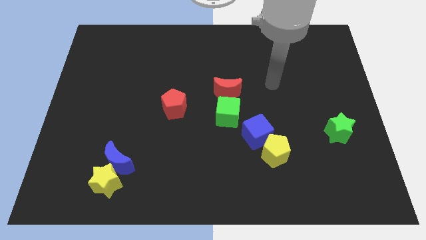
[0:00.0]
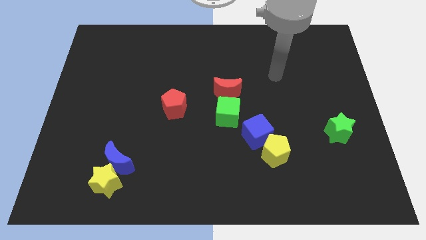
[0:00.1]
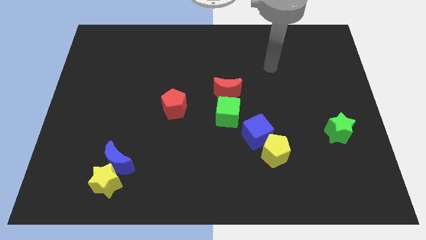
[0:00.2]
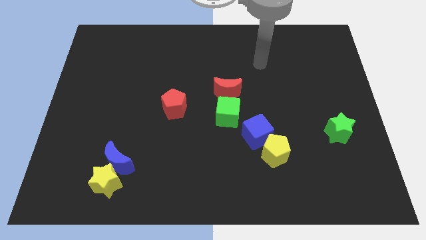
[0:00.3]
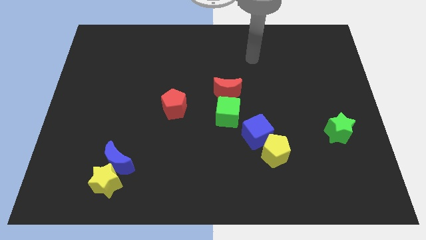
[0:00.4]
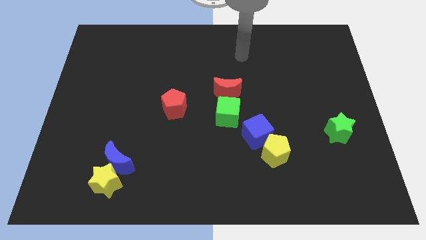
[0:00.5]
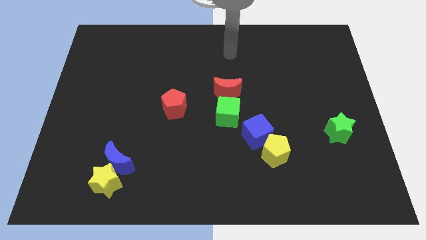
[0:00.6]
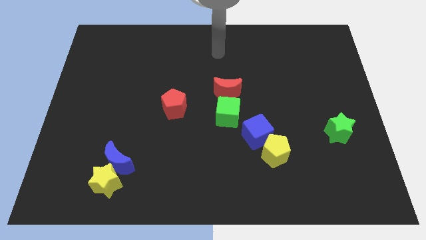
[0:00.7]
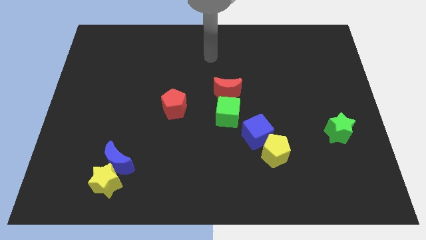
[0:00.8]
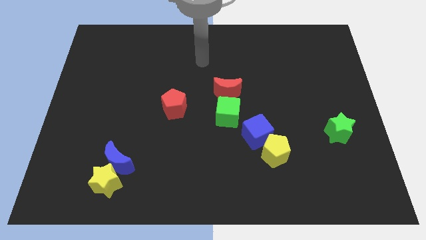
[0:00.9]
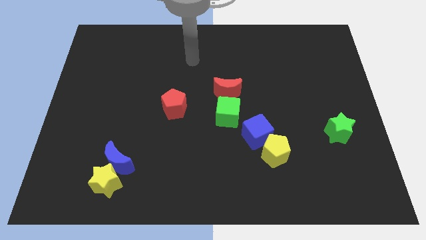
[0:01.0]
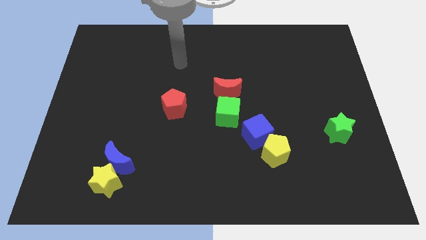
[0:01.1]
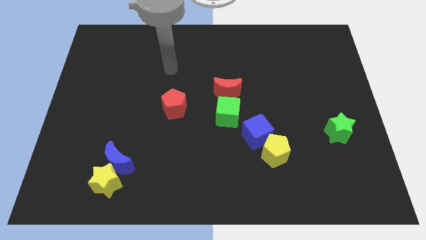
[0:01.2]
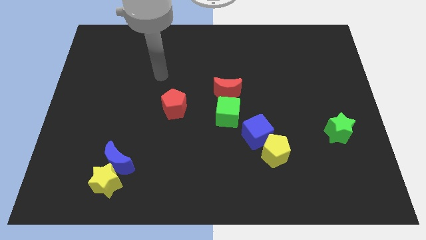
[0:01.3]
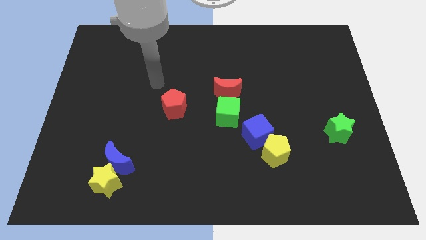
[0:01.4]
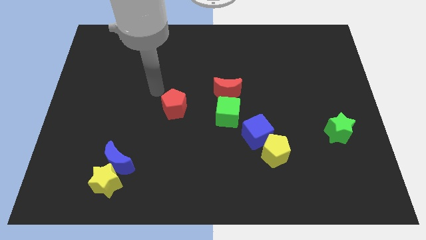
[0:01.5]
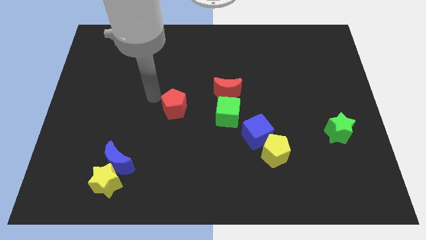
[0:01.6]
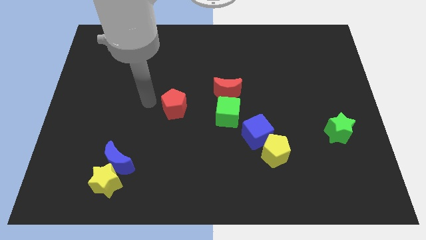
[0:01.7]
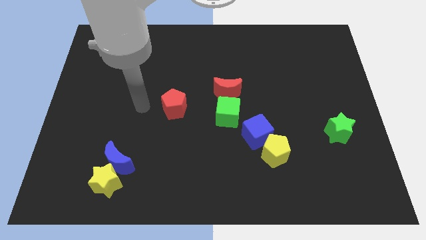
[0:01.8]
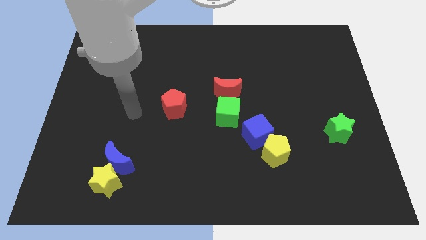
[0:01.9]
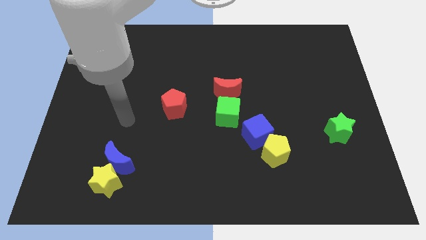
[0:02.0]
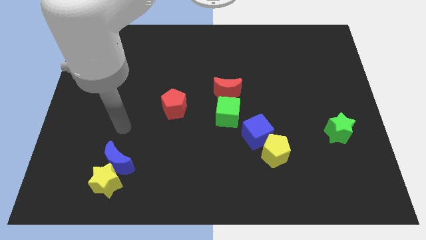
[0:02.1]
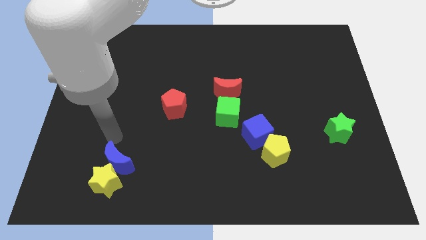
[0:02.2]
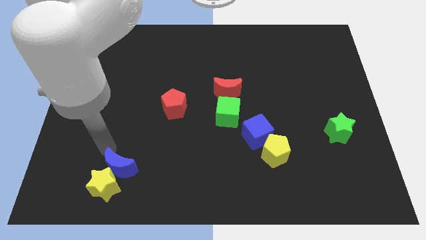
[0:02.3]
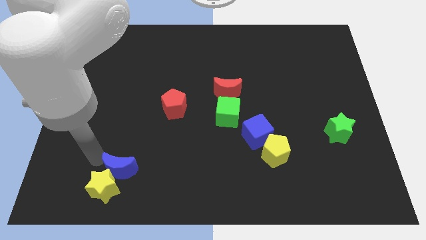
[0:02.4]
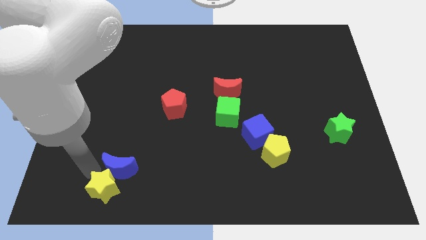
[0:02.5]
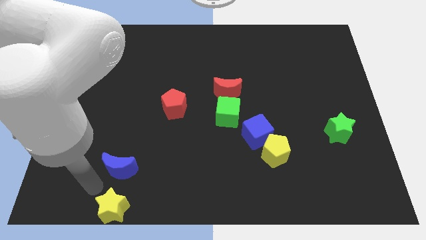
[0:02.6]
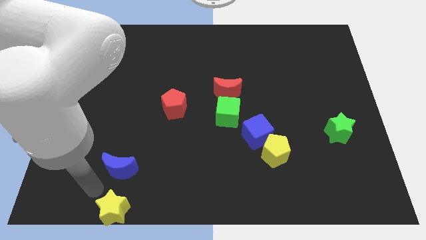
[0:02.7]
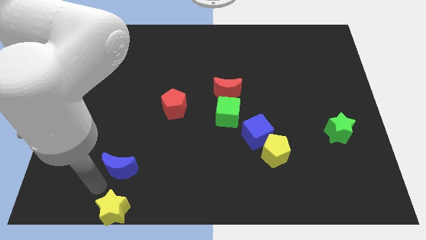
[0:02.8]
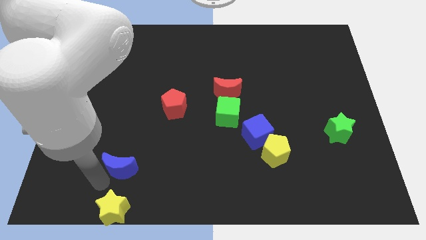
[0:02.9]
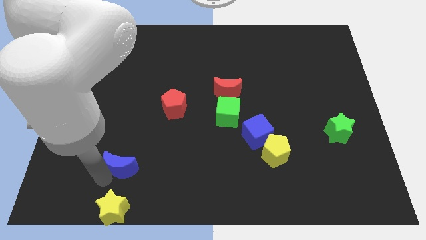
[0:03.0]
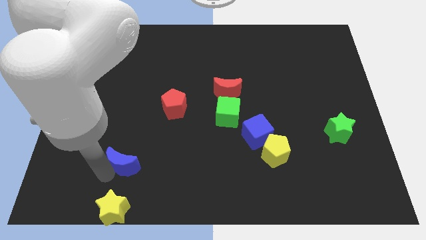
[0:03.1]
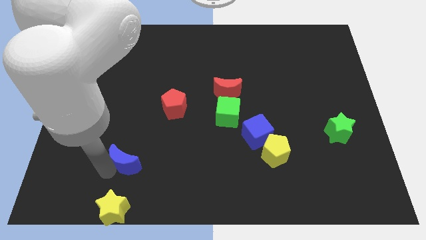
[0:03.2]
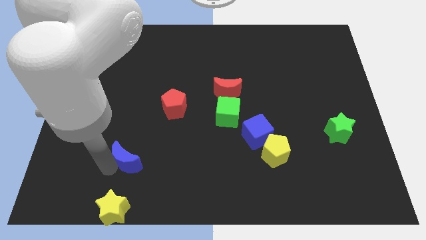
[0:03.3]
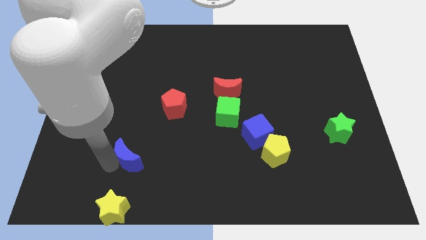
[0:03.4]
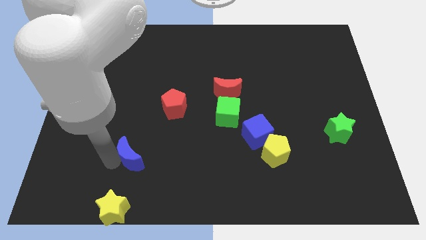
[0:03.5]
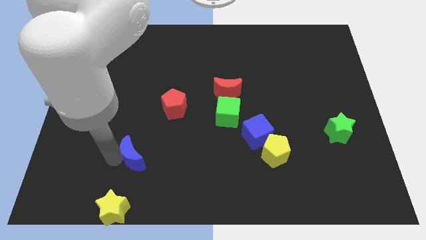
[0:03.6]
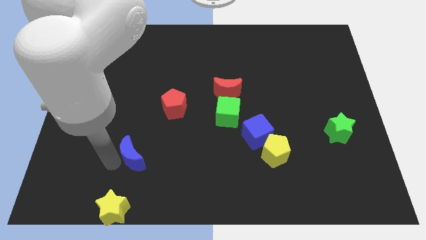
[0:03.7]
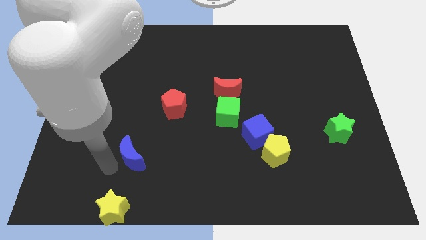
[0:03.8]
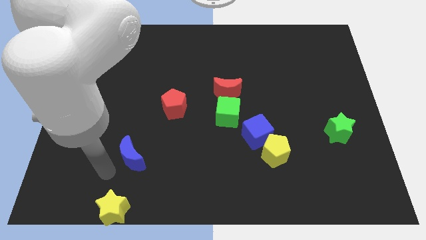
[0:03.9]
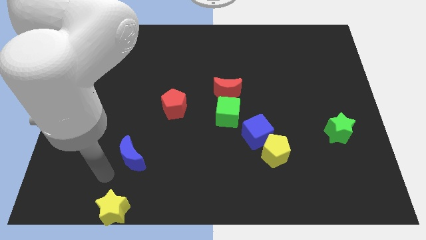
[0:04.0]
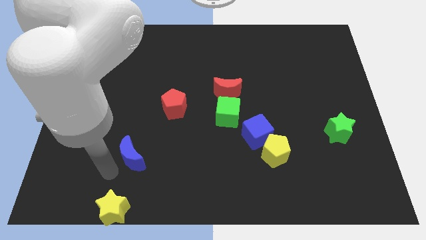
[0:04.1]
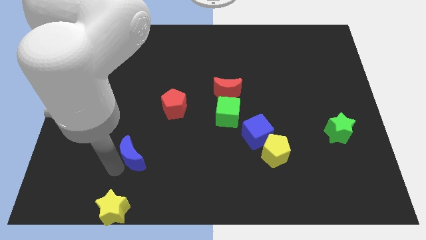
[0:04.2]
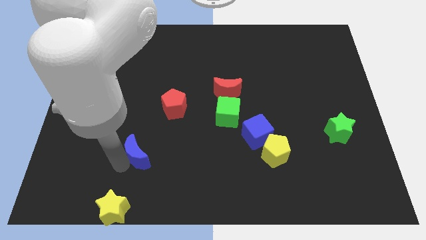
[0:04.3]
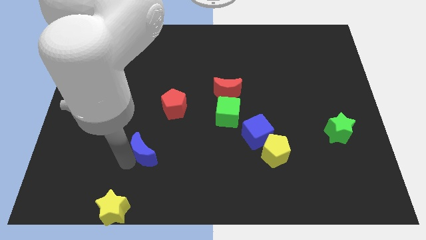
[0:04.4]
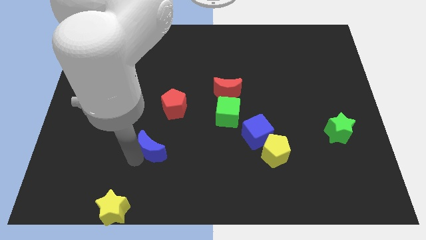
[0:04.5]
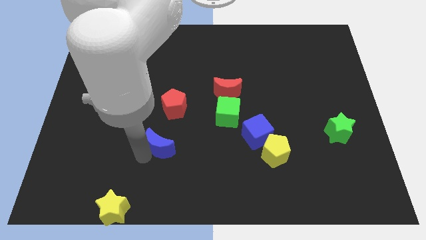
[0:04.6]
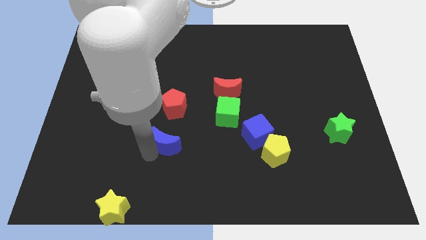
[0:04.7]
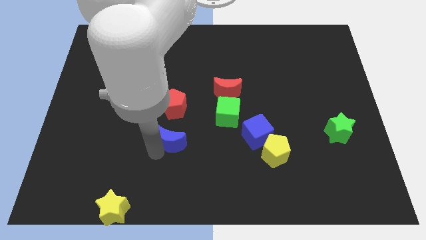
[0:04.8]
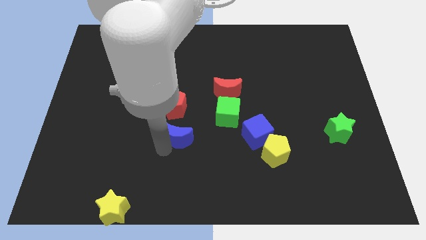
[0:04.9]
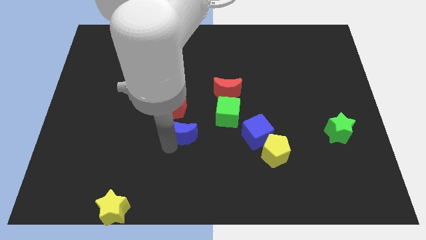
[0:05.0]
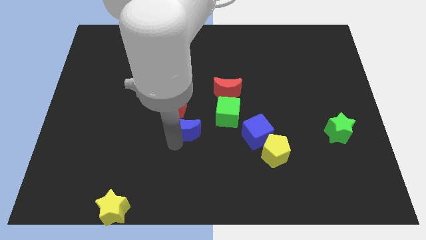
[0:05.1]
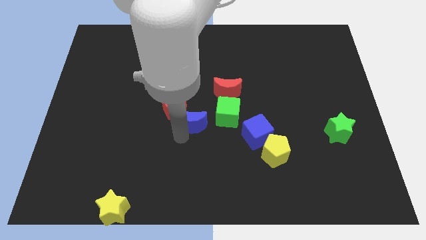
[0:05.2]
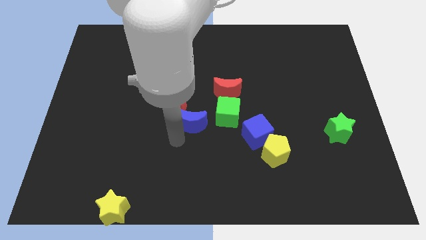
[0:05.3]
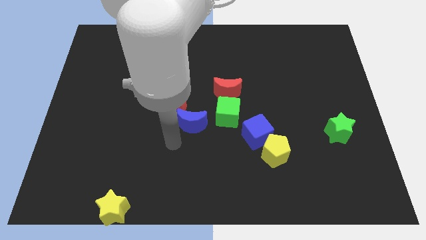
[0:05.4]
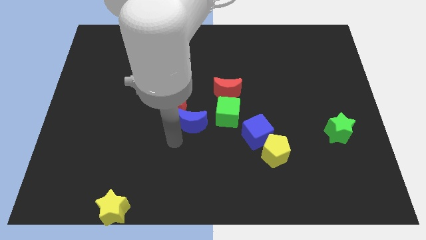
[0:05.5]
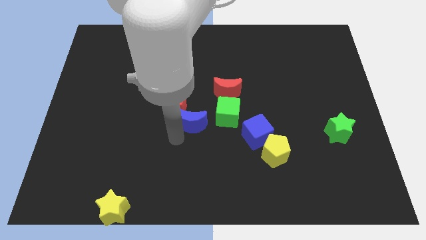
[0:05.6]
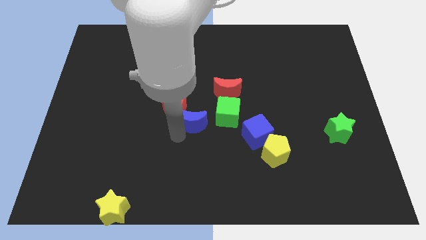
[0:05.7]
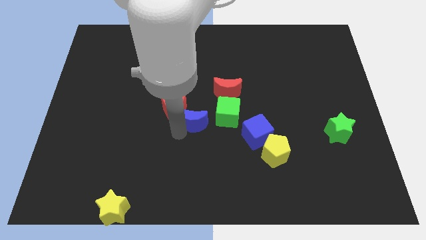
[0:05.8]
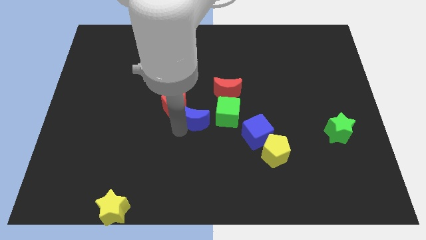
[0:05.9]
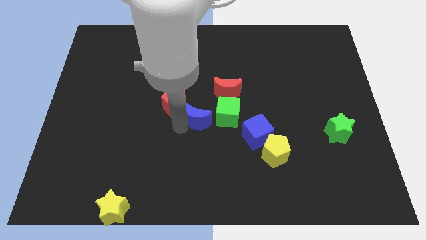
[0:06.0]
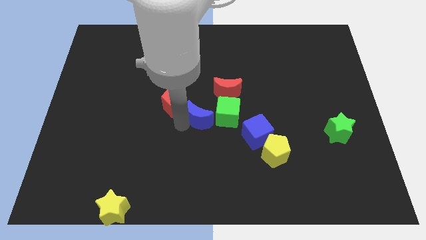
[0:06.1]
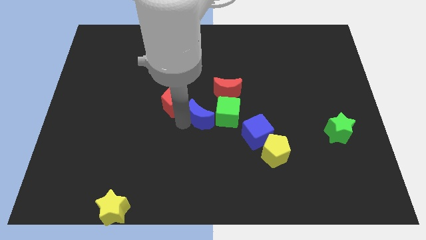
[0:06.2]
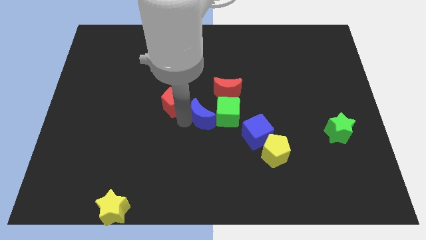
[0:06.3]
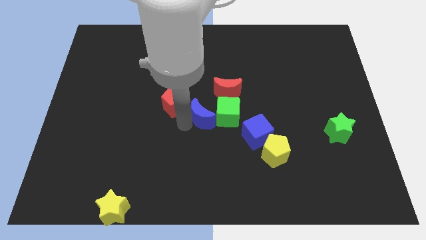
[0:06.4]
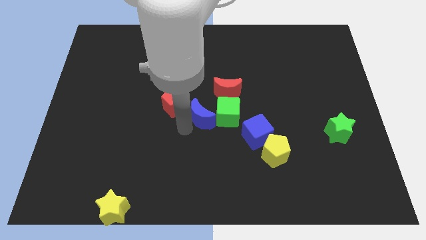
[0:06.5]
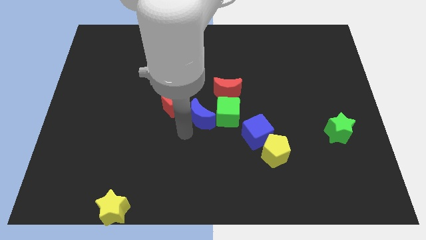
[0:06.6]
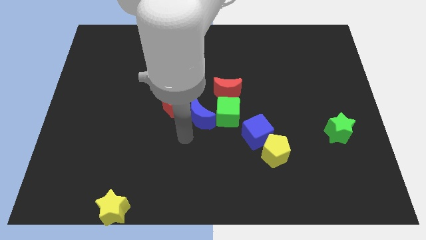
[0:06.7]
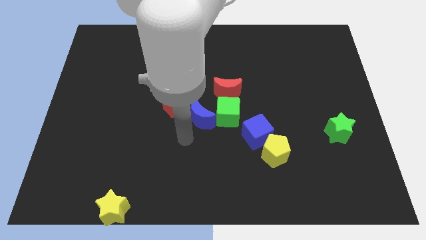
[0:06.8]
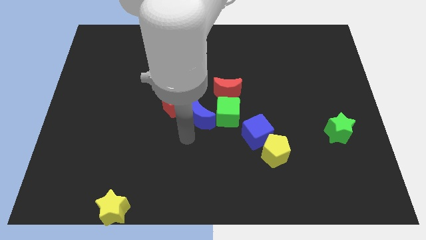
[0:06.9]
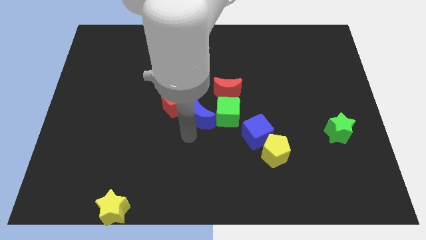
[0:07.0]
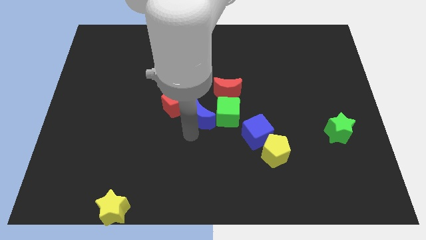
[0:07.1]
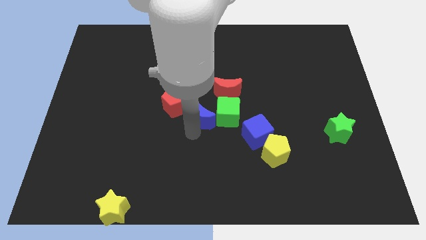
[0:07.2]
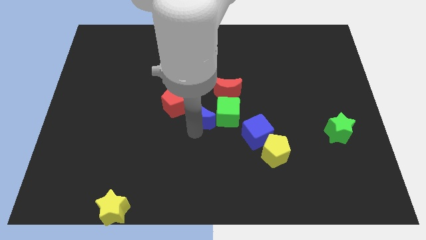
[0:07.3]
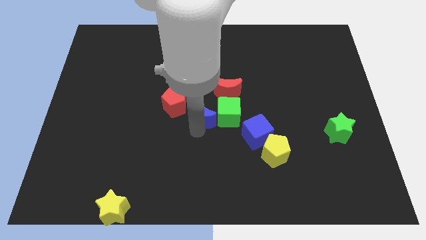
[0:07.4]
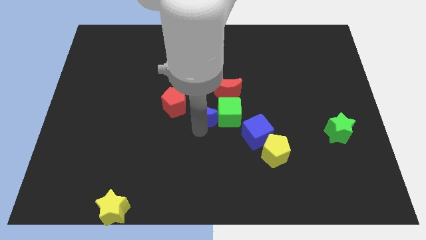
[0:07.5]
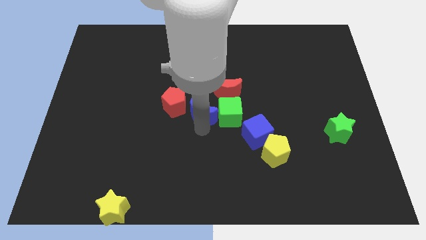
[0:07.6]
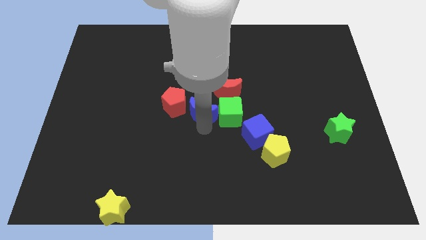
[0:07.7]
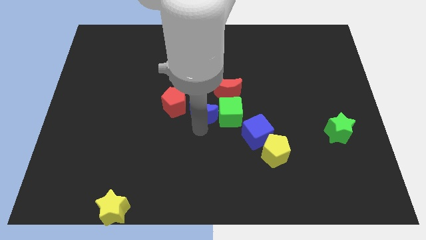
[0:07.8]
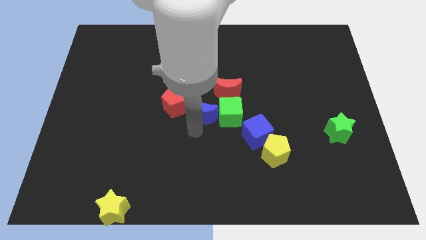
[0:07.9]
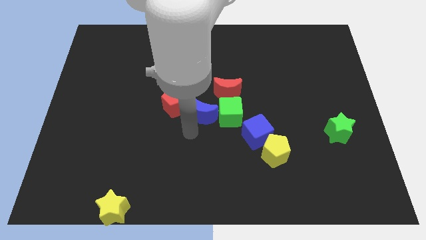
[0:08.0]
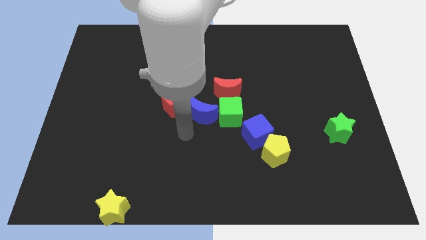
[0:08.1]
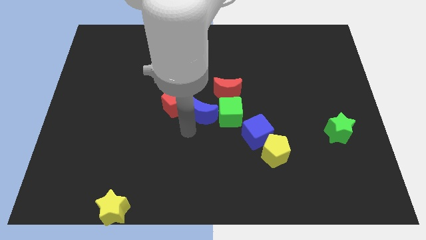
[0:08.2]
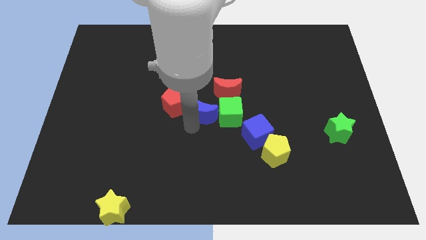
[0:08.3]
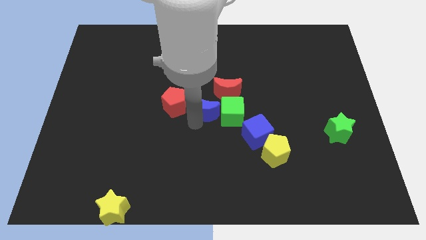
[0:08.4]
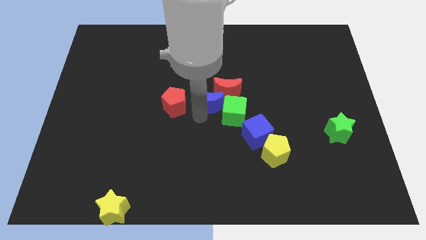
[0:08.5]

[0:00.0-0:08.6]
put the blue moon to the red moon
